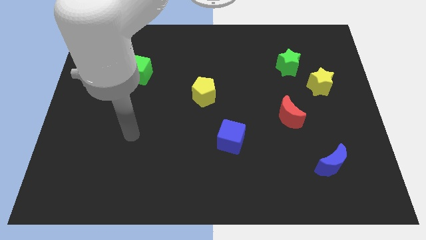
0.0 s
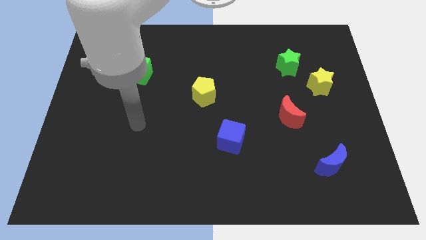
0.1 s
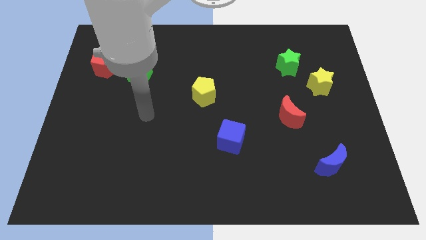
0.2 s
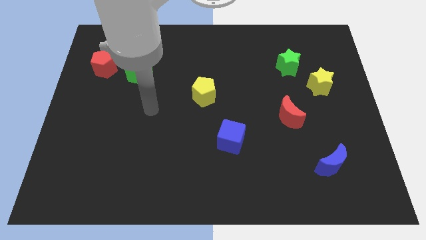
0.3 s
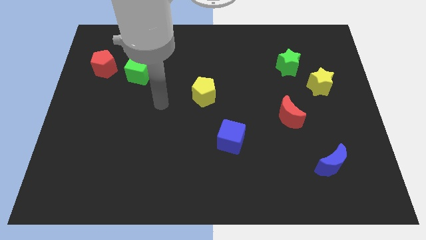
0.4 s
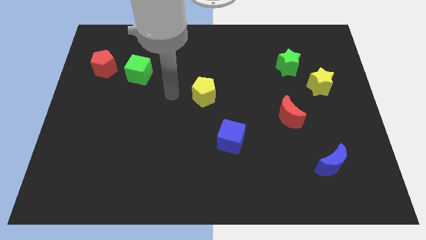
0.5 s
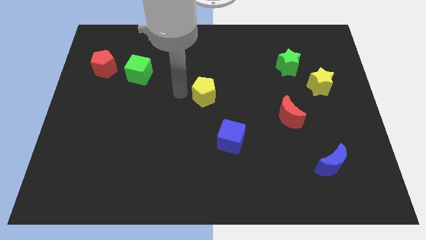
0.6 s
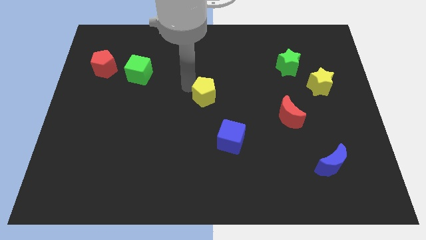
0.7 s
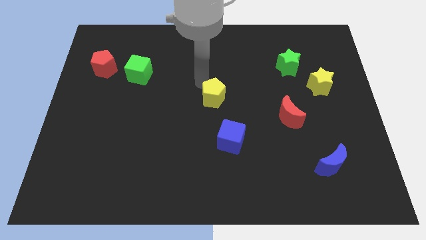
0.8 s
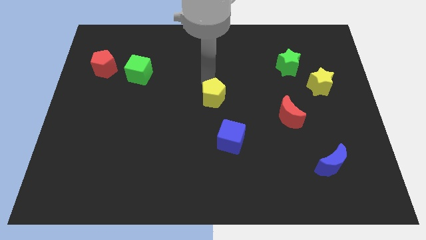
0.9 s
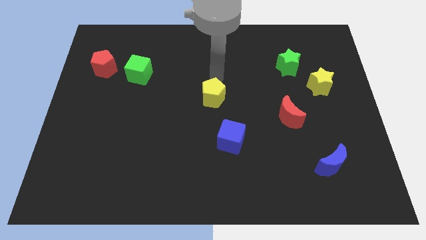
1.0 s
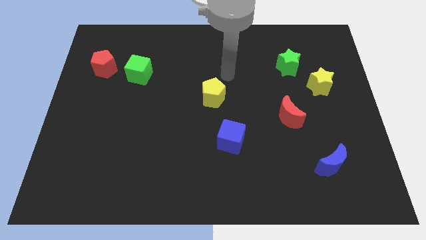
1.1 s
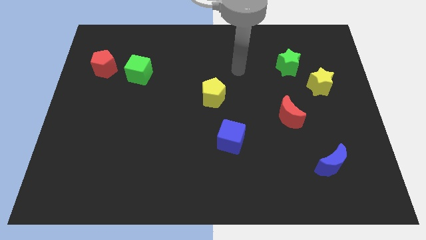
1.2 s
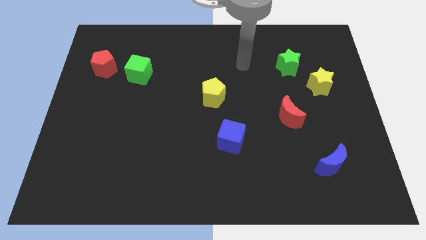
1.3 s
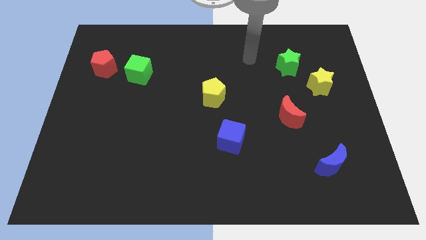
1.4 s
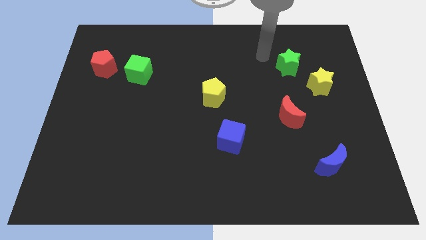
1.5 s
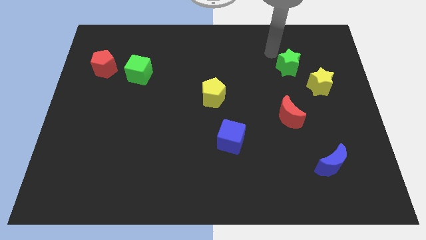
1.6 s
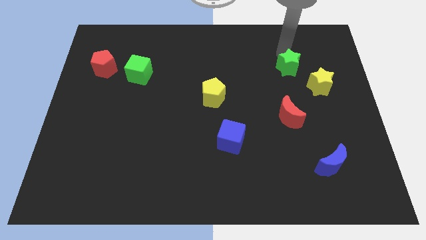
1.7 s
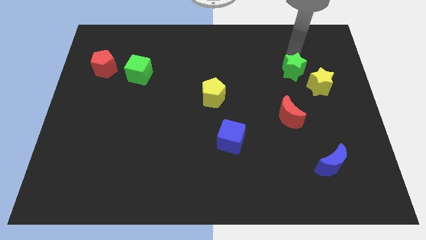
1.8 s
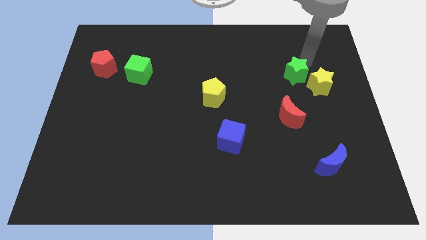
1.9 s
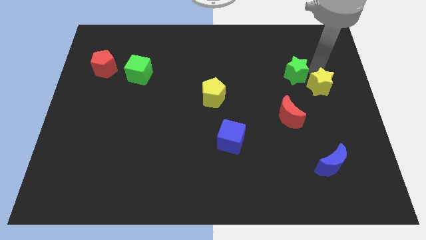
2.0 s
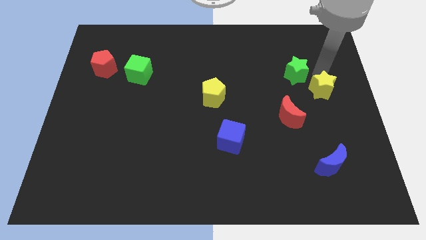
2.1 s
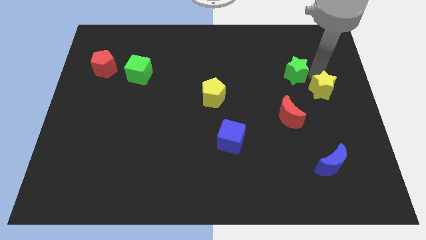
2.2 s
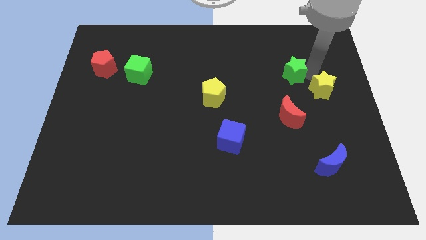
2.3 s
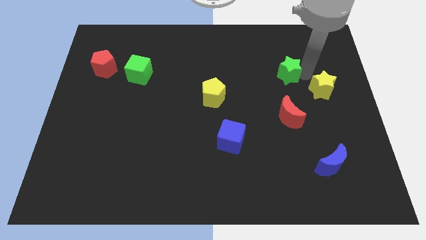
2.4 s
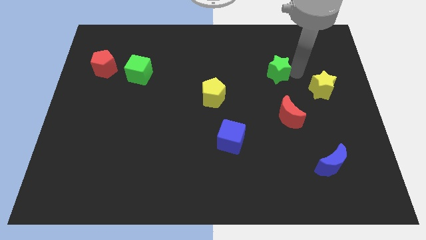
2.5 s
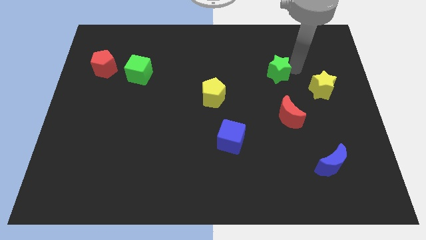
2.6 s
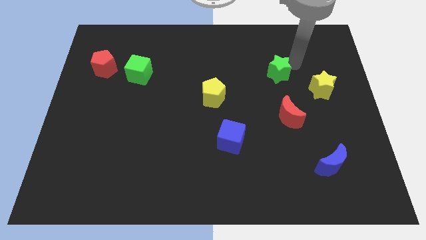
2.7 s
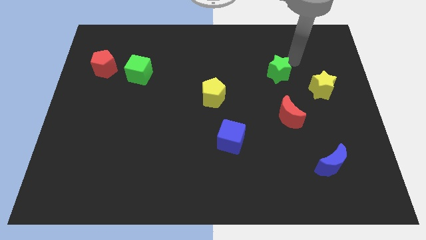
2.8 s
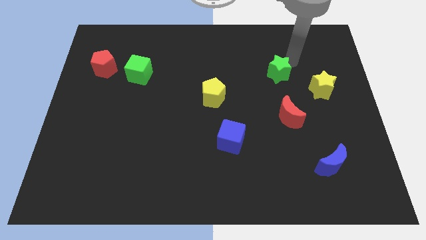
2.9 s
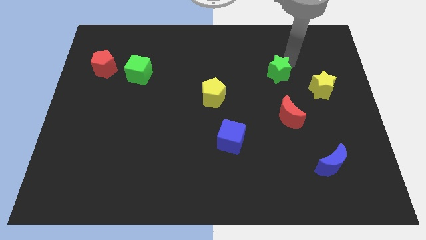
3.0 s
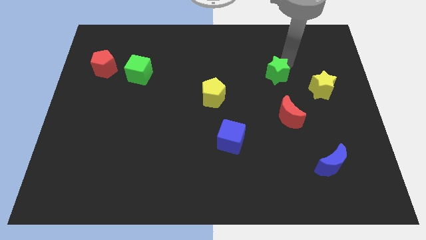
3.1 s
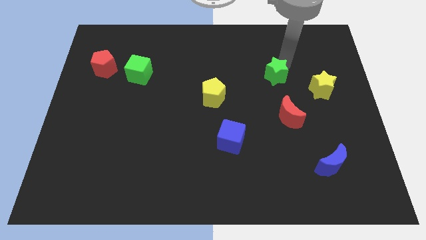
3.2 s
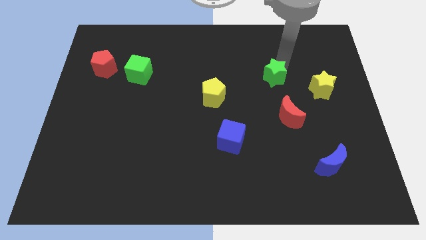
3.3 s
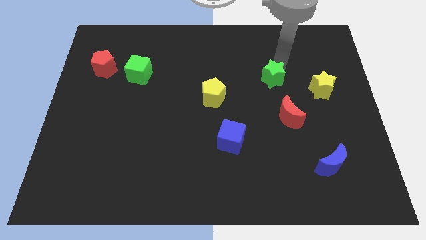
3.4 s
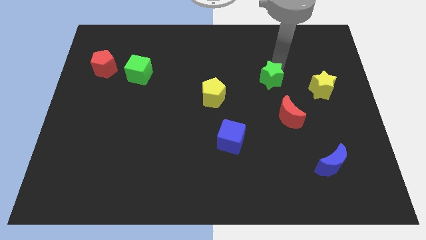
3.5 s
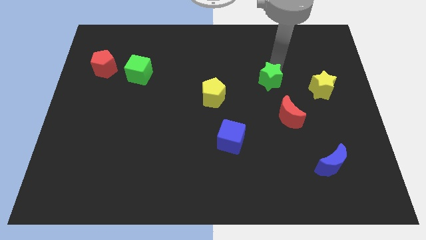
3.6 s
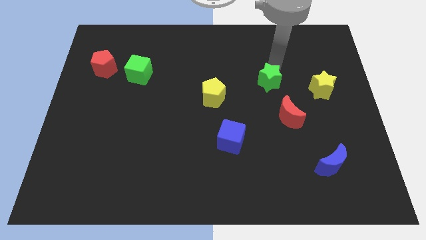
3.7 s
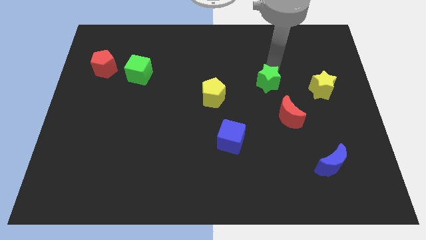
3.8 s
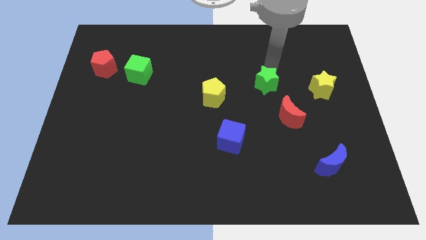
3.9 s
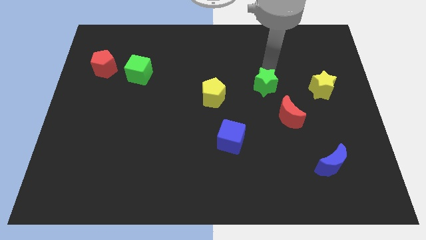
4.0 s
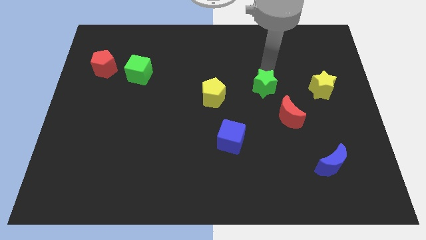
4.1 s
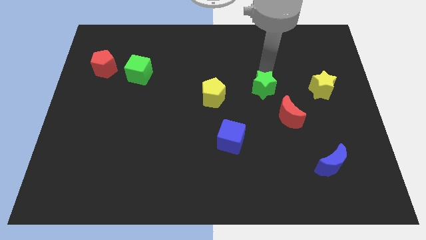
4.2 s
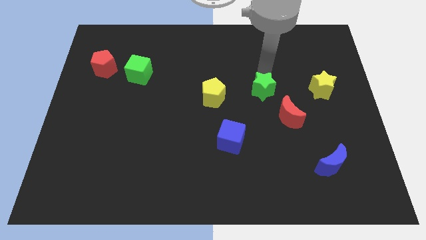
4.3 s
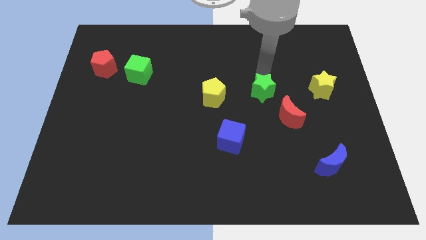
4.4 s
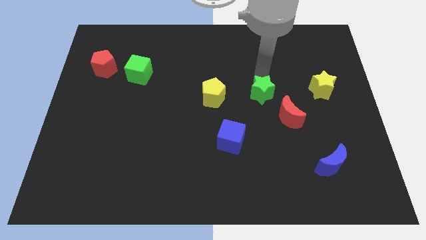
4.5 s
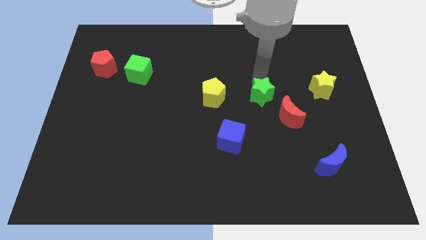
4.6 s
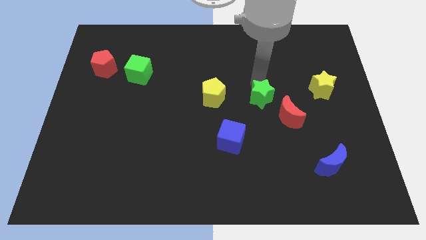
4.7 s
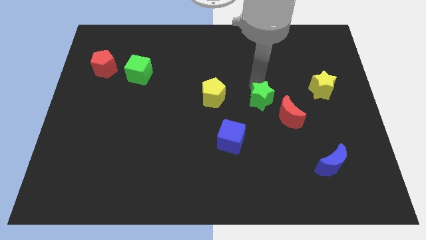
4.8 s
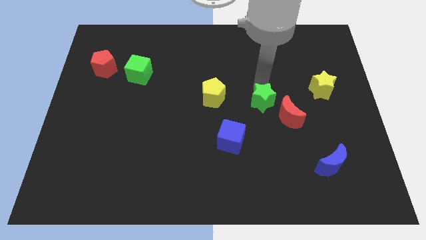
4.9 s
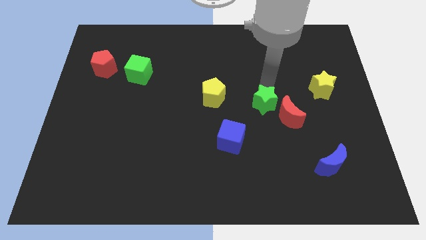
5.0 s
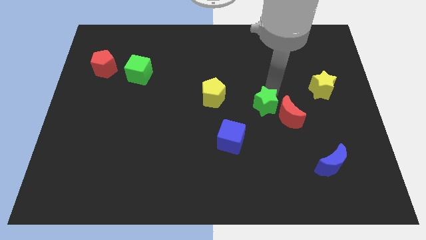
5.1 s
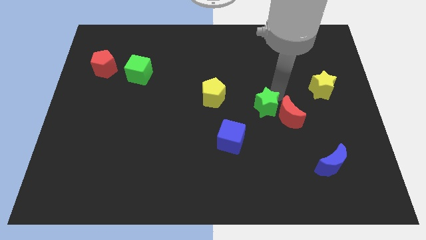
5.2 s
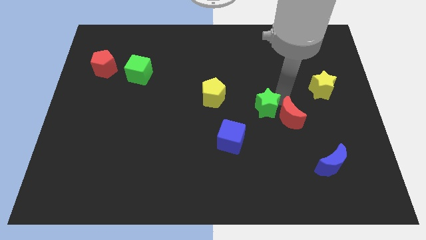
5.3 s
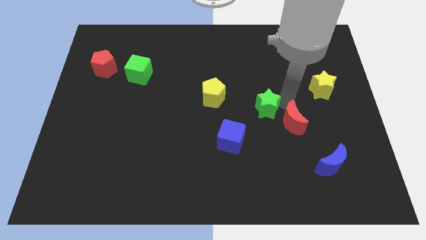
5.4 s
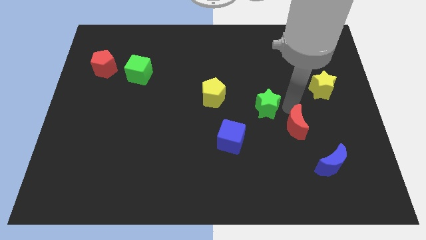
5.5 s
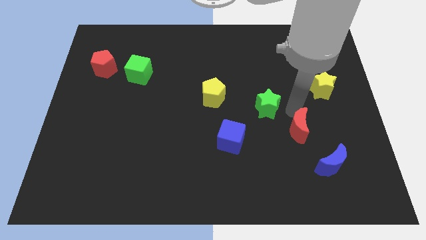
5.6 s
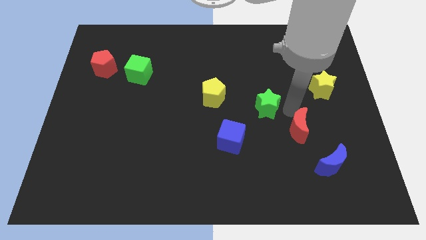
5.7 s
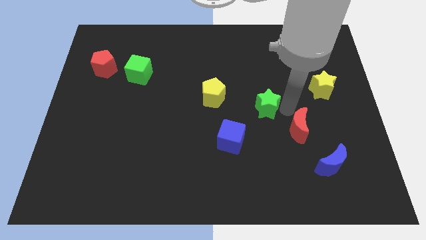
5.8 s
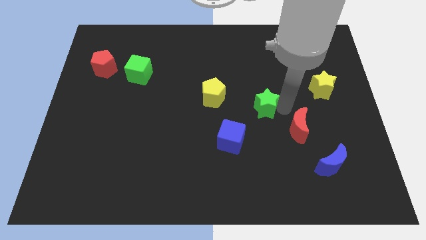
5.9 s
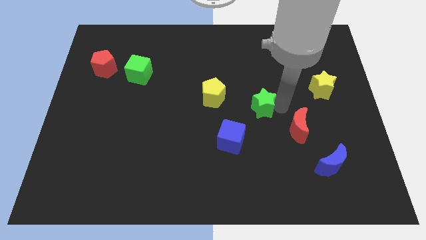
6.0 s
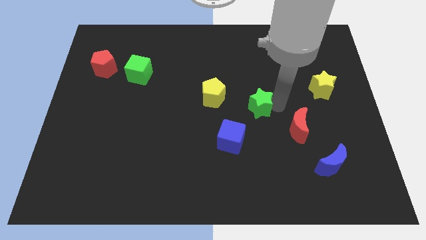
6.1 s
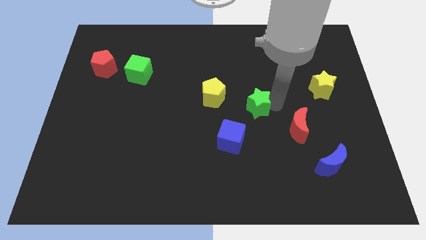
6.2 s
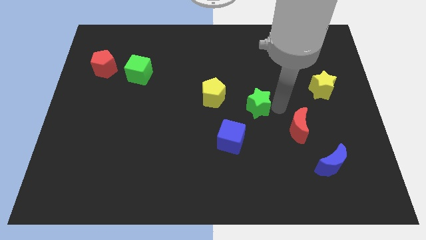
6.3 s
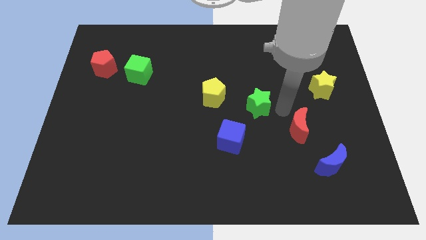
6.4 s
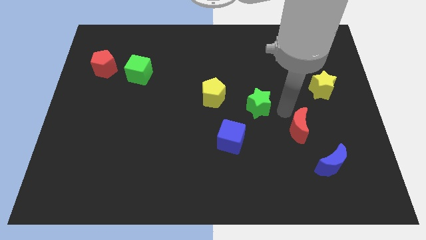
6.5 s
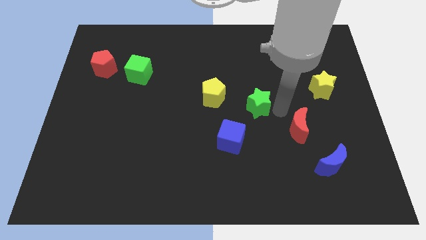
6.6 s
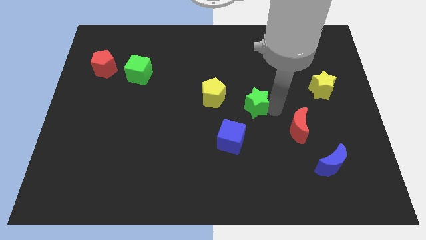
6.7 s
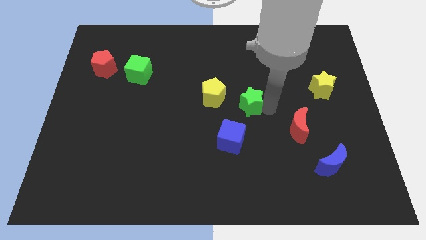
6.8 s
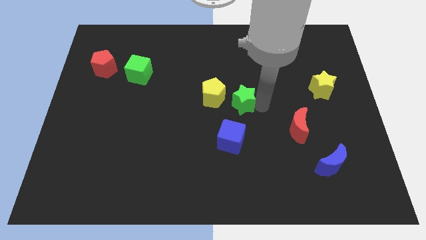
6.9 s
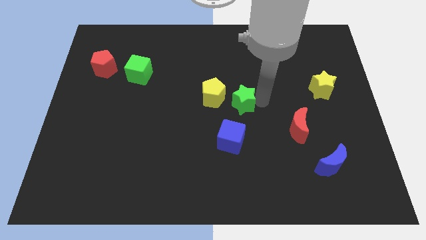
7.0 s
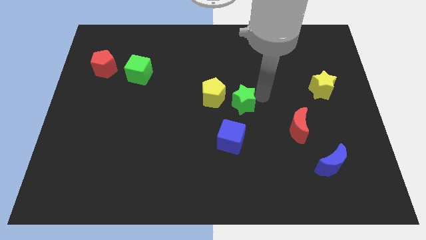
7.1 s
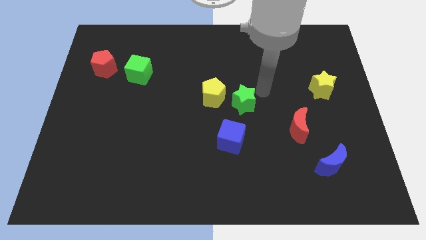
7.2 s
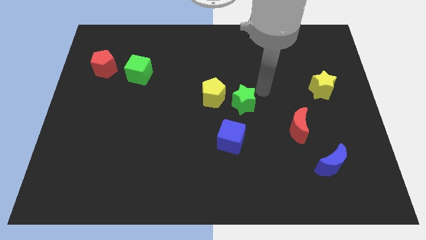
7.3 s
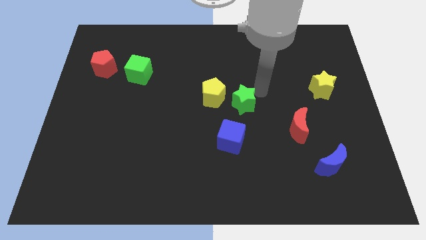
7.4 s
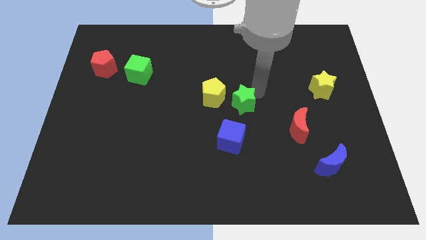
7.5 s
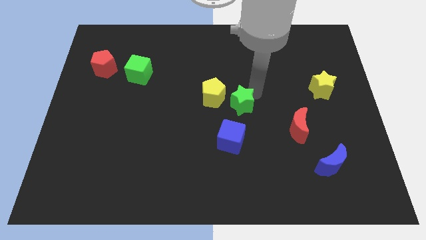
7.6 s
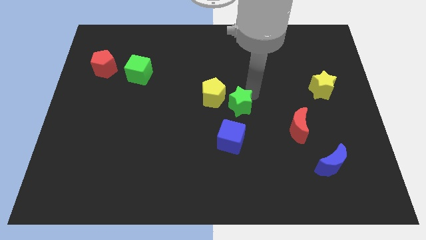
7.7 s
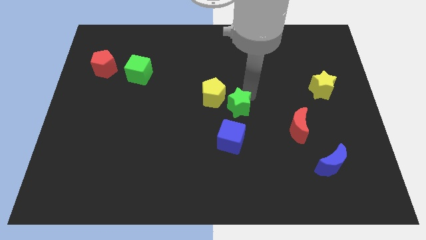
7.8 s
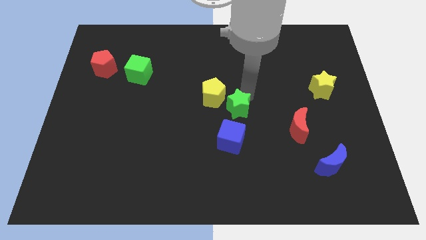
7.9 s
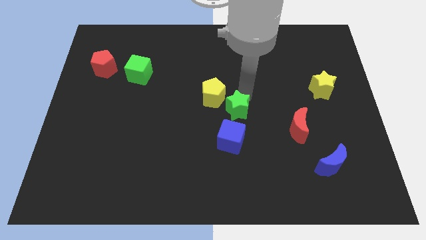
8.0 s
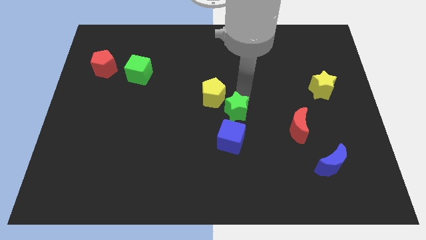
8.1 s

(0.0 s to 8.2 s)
push the green star diagonally downwards and to the left
